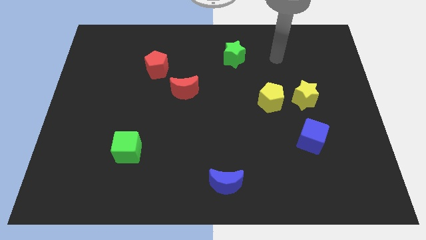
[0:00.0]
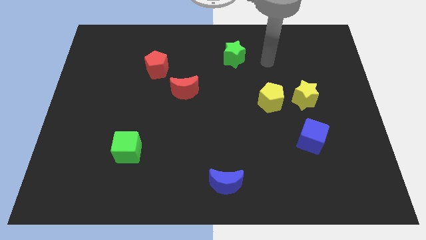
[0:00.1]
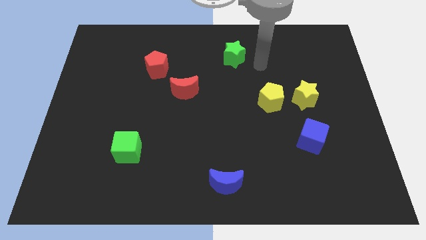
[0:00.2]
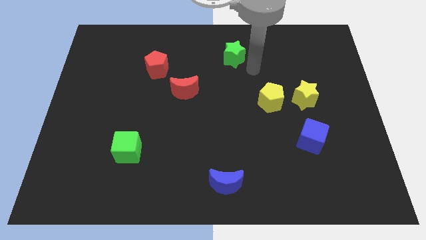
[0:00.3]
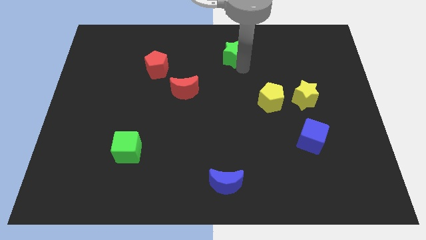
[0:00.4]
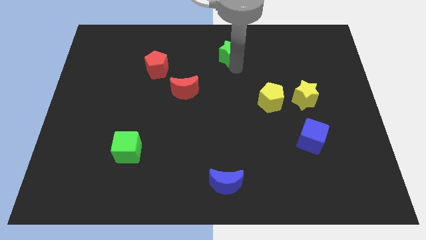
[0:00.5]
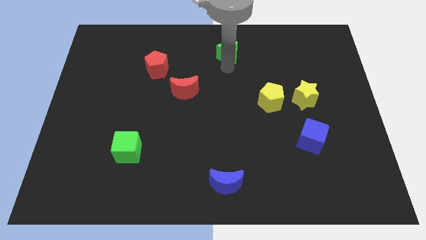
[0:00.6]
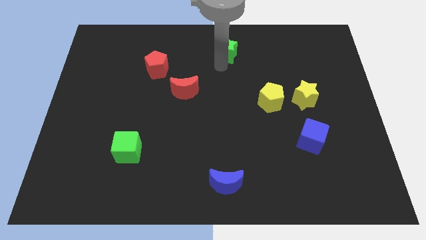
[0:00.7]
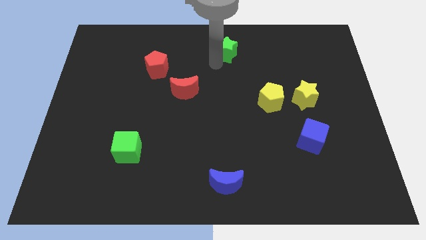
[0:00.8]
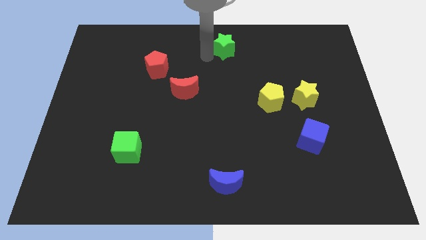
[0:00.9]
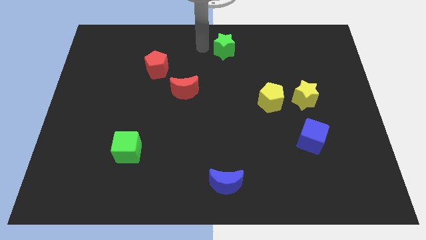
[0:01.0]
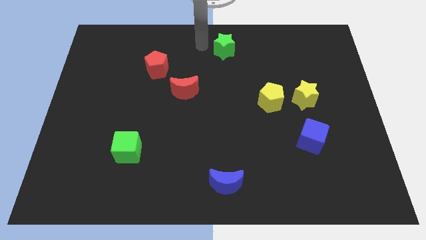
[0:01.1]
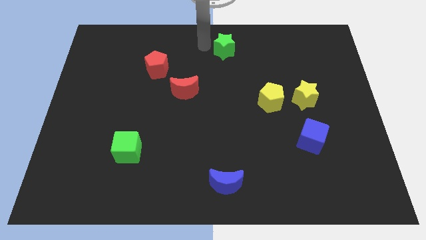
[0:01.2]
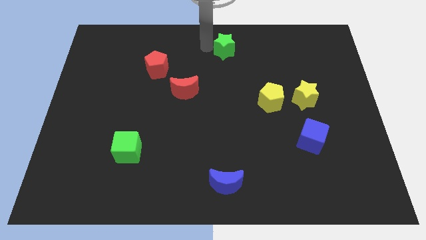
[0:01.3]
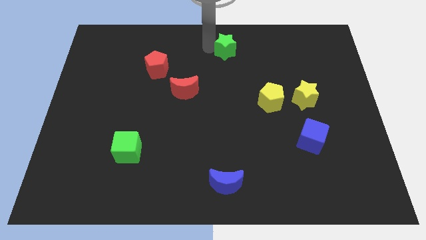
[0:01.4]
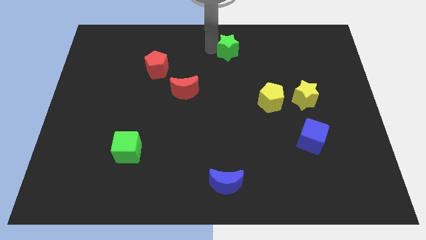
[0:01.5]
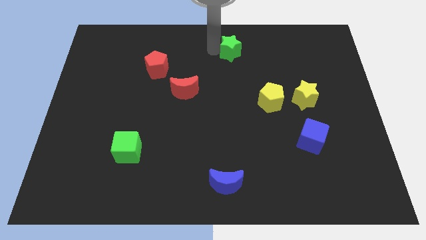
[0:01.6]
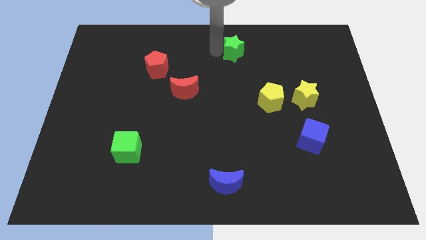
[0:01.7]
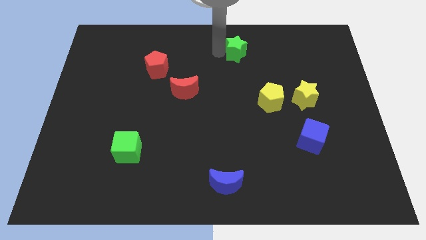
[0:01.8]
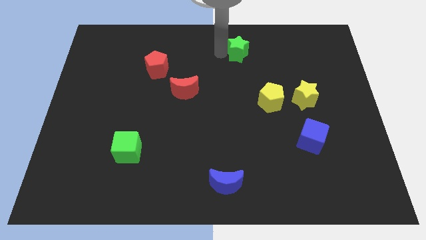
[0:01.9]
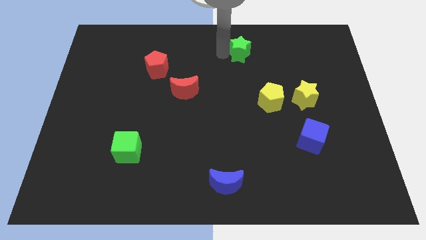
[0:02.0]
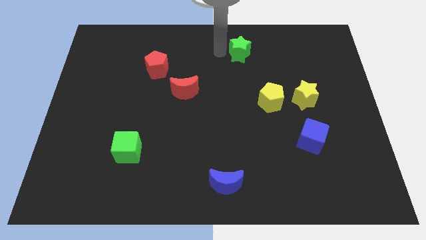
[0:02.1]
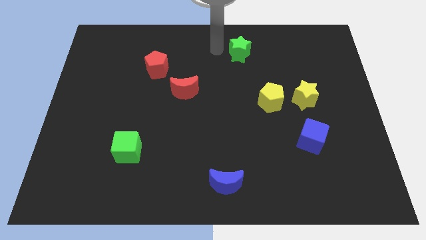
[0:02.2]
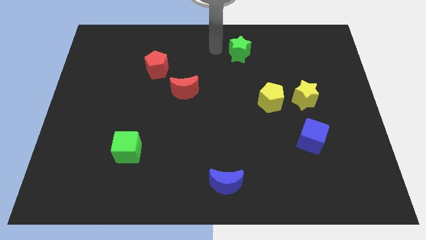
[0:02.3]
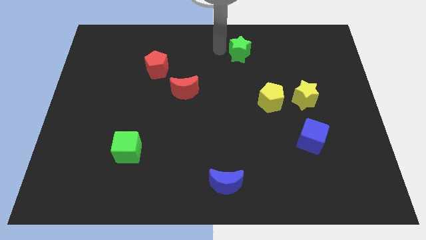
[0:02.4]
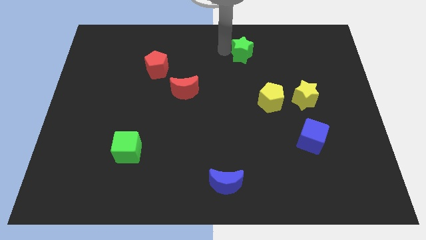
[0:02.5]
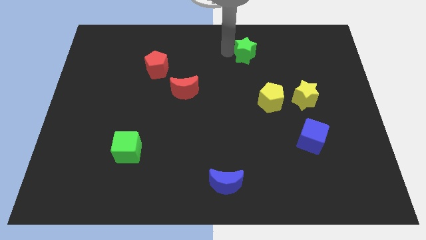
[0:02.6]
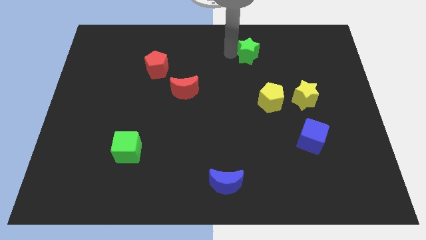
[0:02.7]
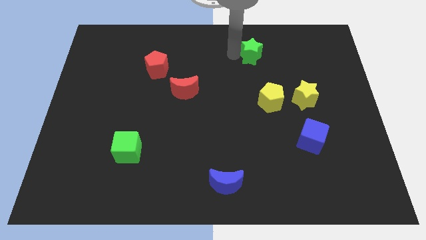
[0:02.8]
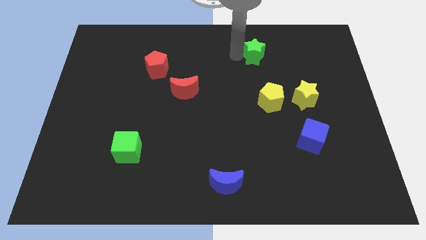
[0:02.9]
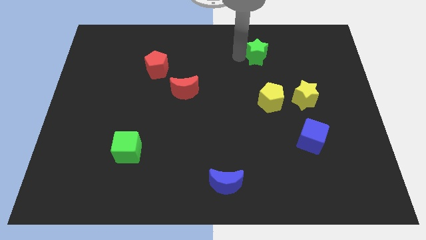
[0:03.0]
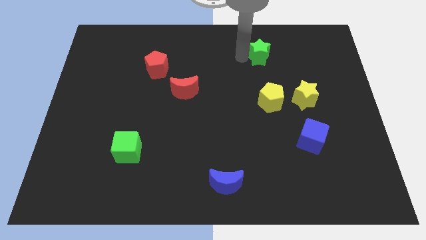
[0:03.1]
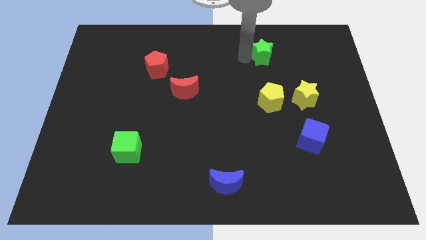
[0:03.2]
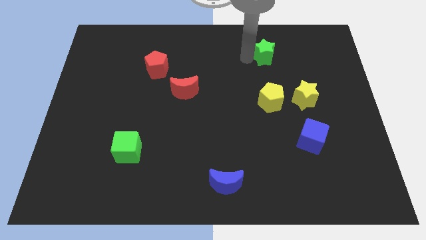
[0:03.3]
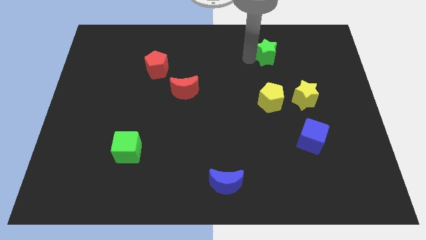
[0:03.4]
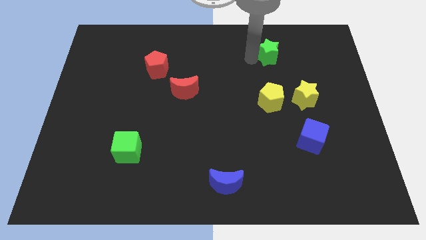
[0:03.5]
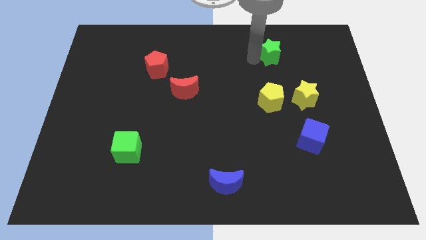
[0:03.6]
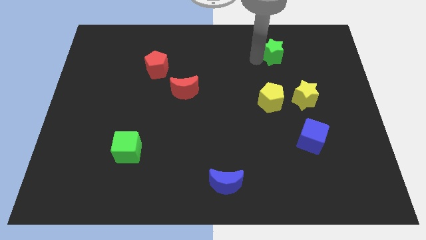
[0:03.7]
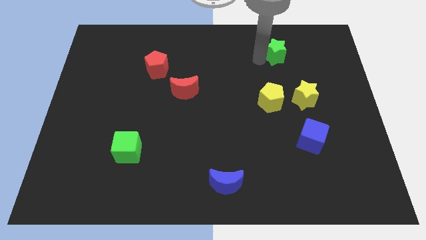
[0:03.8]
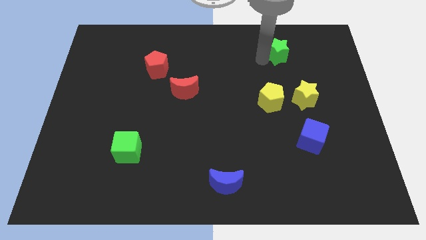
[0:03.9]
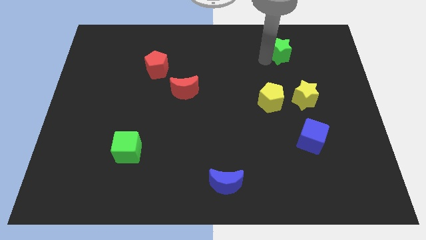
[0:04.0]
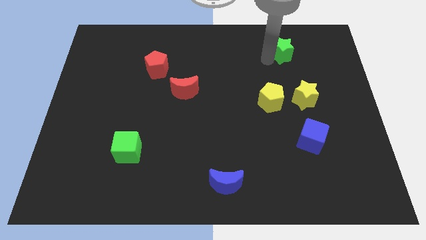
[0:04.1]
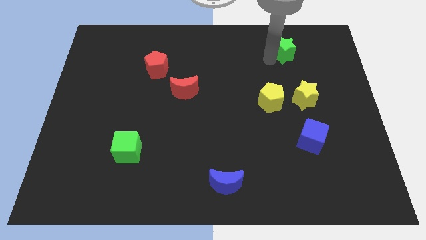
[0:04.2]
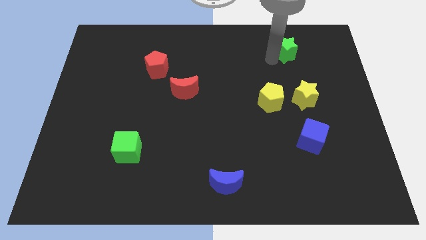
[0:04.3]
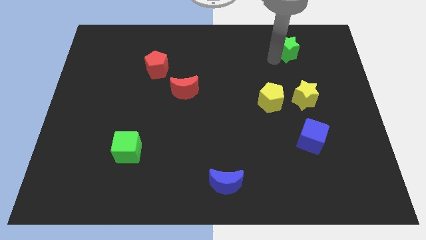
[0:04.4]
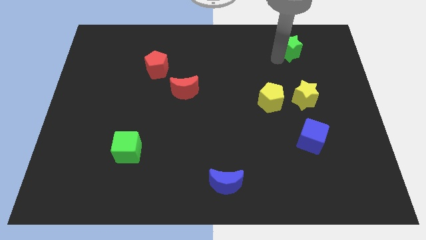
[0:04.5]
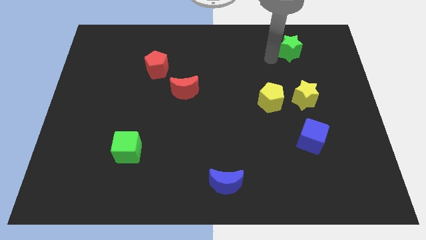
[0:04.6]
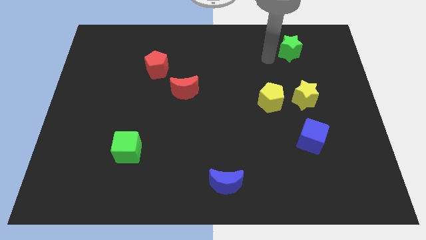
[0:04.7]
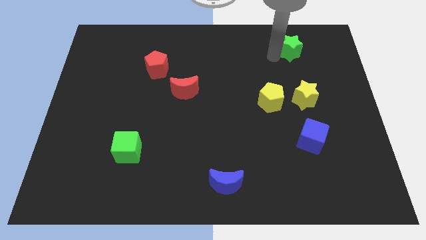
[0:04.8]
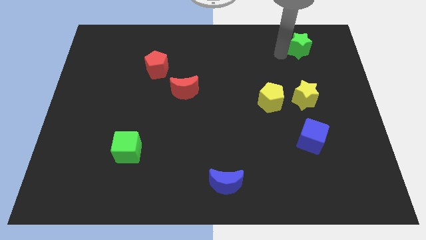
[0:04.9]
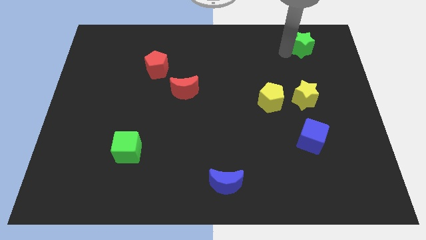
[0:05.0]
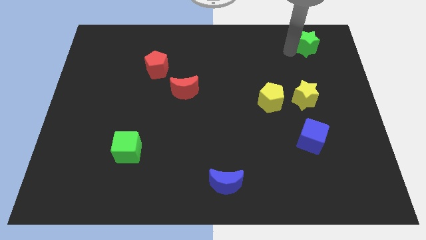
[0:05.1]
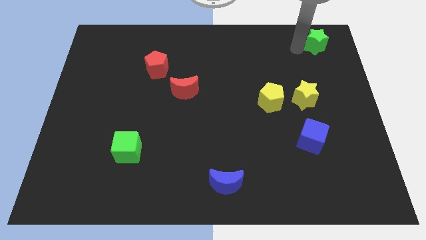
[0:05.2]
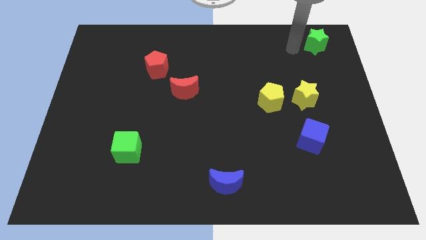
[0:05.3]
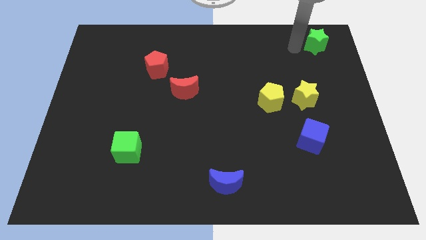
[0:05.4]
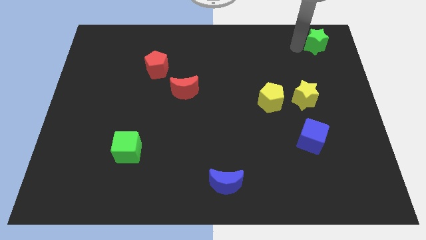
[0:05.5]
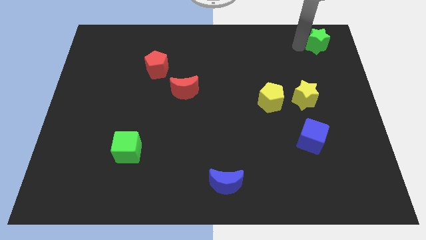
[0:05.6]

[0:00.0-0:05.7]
move the green star to the top right of the board
